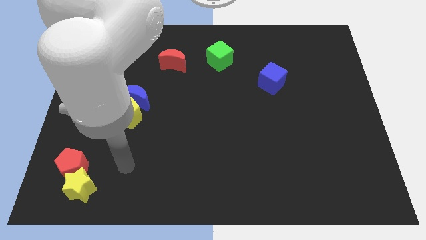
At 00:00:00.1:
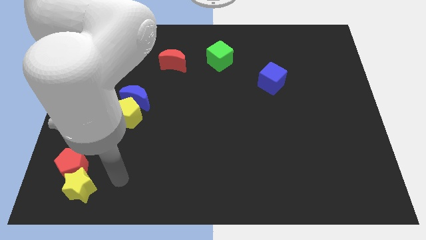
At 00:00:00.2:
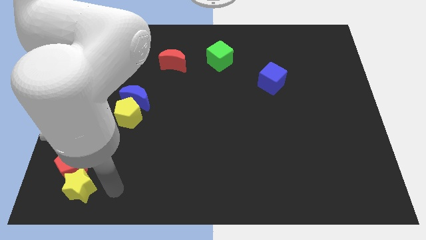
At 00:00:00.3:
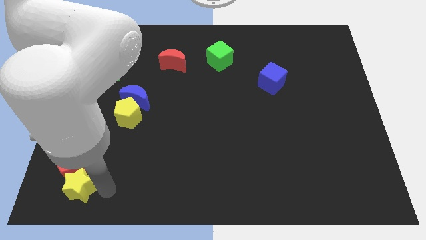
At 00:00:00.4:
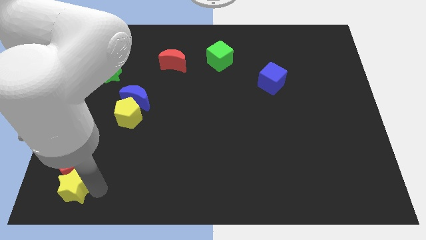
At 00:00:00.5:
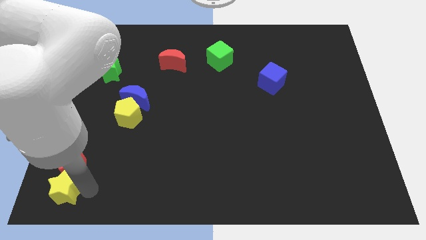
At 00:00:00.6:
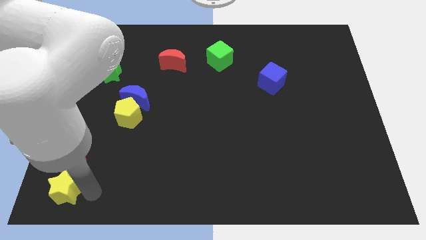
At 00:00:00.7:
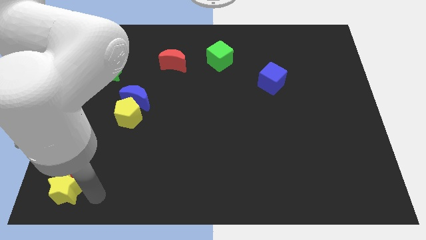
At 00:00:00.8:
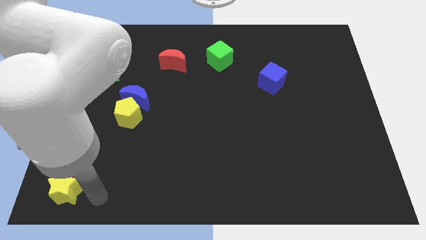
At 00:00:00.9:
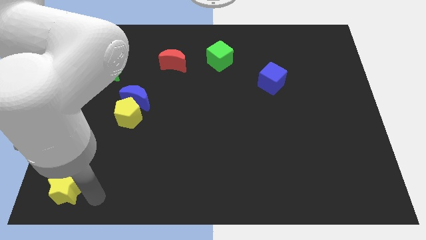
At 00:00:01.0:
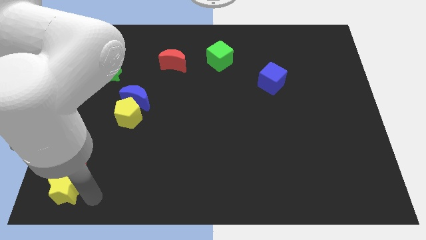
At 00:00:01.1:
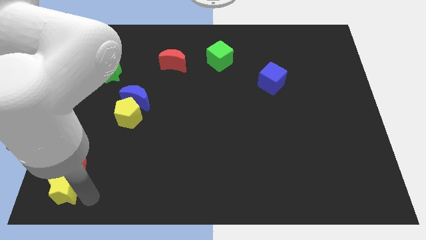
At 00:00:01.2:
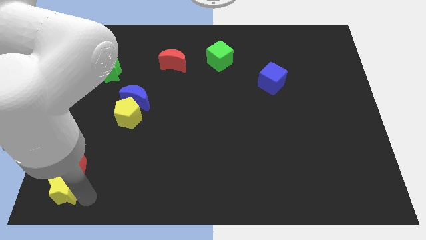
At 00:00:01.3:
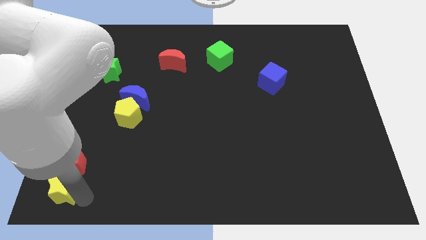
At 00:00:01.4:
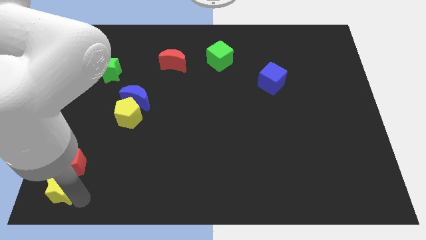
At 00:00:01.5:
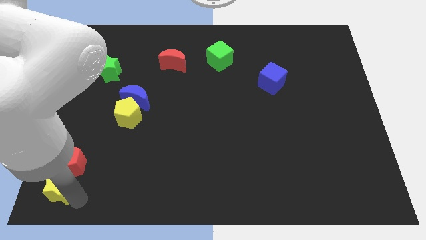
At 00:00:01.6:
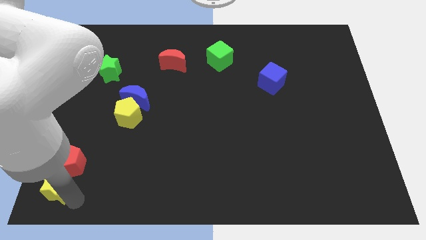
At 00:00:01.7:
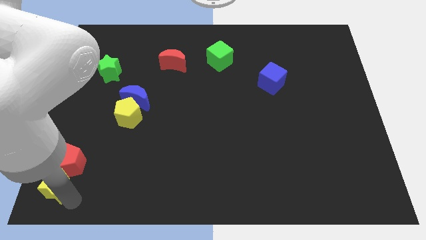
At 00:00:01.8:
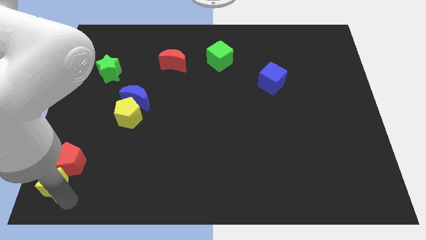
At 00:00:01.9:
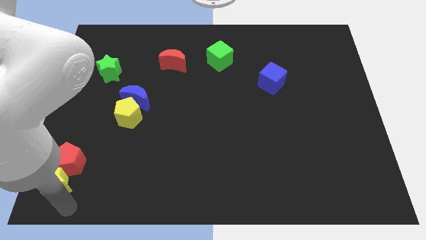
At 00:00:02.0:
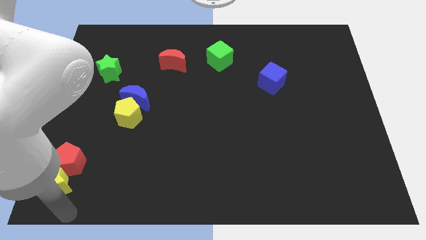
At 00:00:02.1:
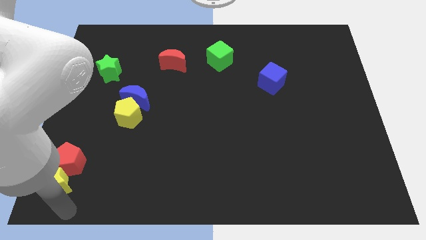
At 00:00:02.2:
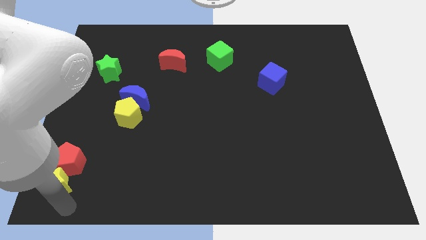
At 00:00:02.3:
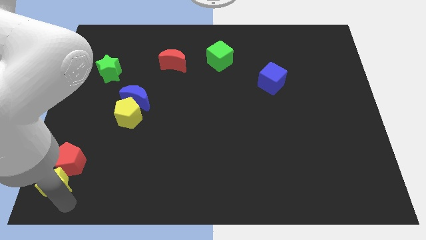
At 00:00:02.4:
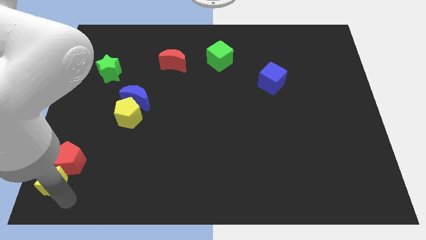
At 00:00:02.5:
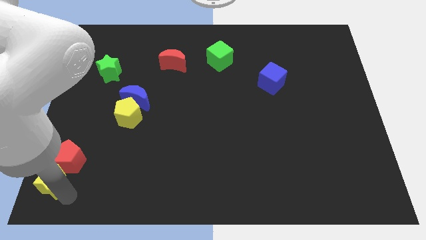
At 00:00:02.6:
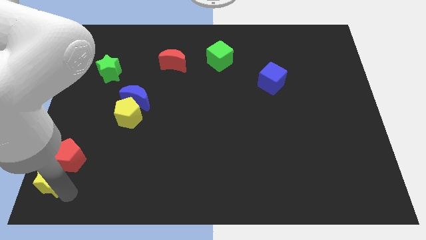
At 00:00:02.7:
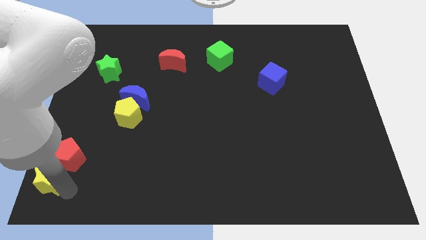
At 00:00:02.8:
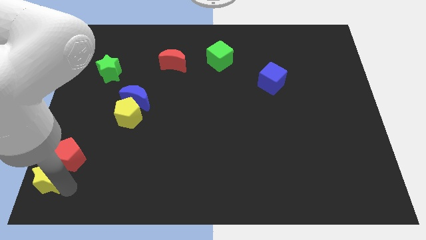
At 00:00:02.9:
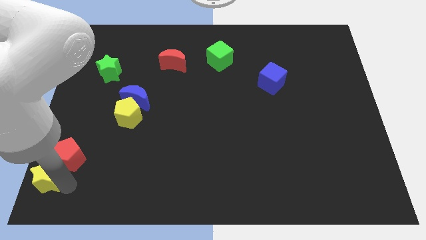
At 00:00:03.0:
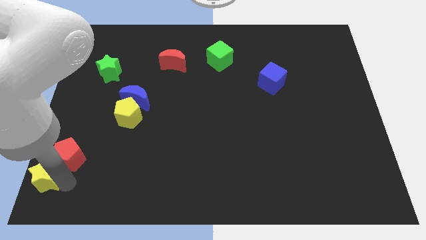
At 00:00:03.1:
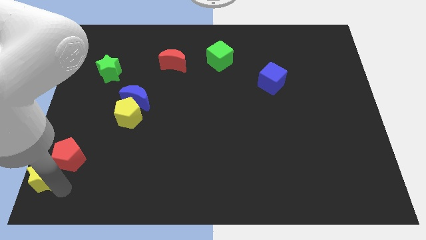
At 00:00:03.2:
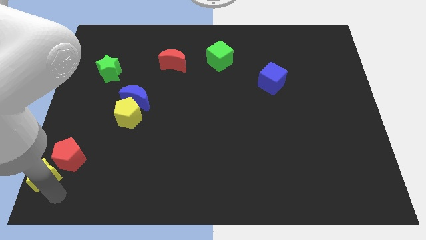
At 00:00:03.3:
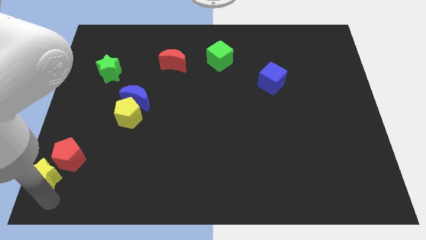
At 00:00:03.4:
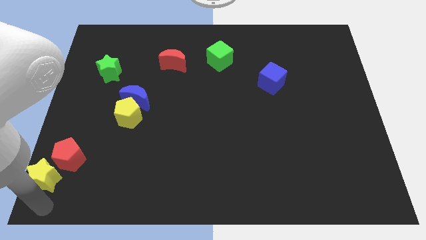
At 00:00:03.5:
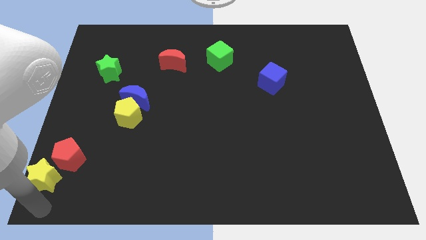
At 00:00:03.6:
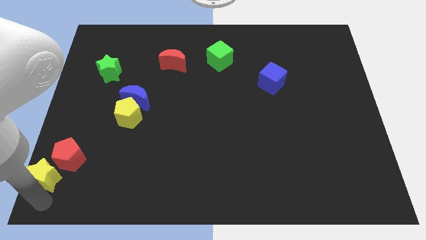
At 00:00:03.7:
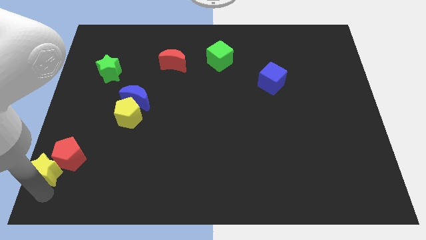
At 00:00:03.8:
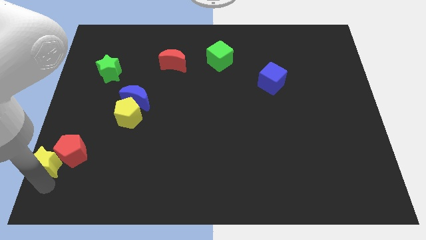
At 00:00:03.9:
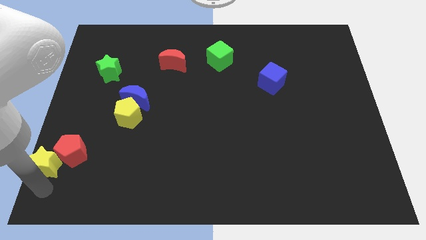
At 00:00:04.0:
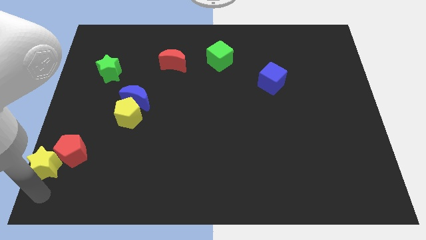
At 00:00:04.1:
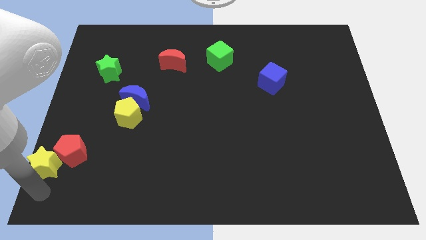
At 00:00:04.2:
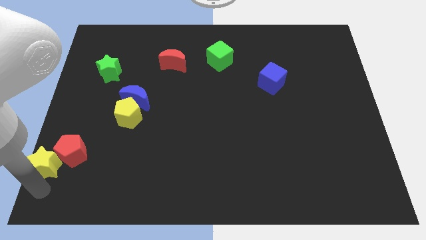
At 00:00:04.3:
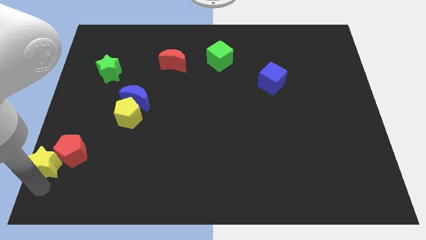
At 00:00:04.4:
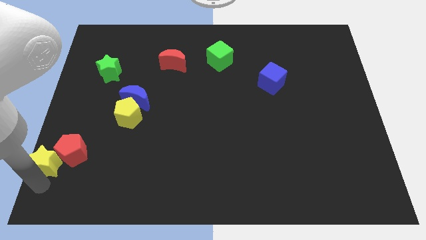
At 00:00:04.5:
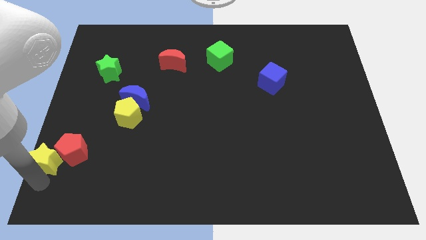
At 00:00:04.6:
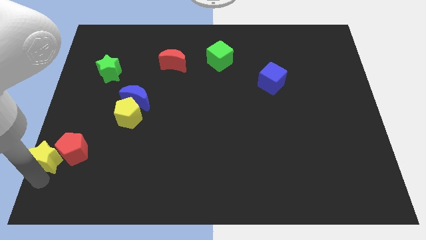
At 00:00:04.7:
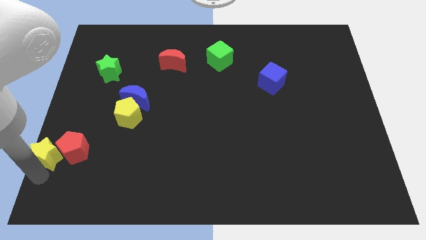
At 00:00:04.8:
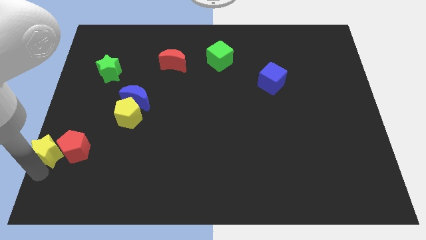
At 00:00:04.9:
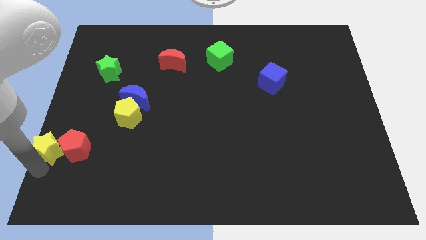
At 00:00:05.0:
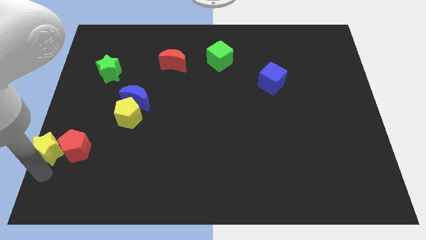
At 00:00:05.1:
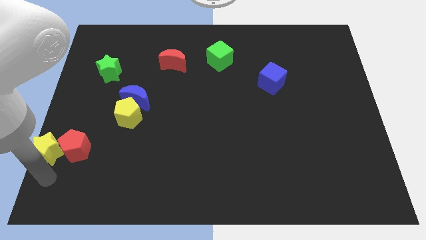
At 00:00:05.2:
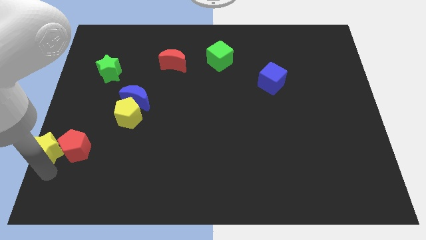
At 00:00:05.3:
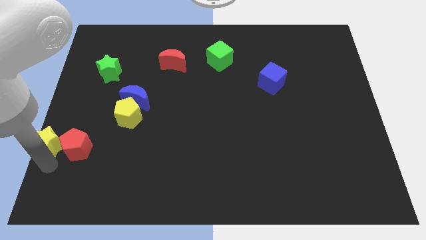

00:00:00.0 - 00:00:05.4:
push the yellow star to the center left

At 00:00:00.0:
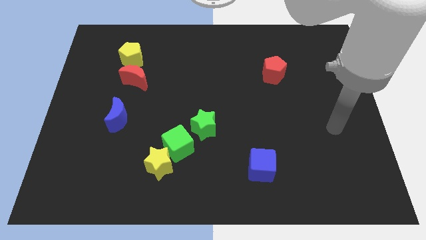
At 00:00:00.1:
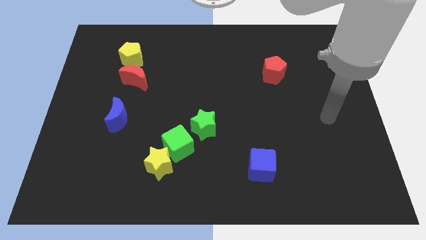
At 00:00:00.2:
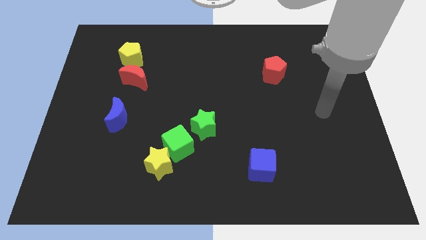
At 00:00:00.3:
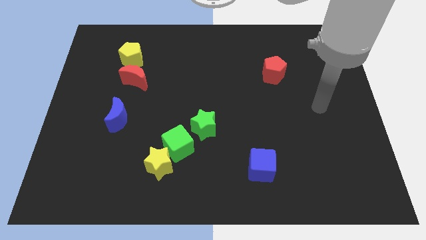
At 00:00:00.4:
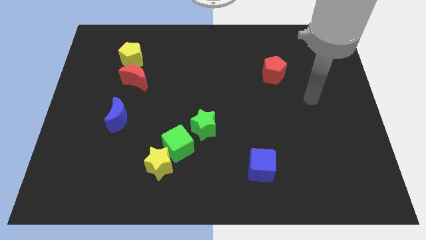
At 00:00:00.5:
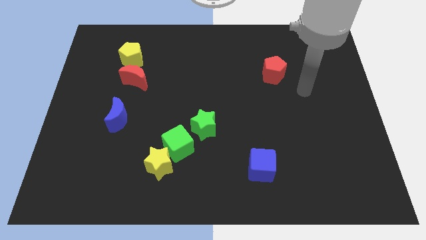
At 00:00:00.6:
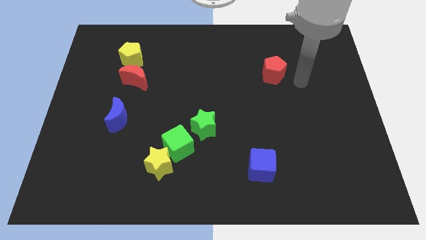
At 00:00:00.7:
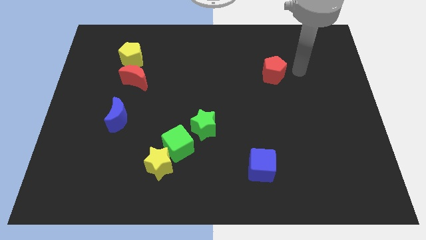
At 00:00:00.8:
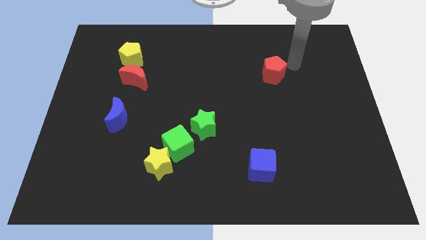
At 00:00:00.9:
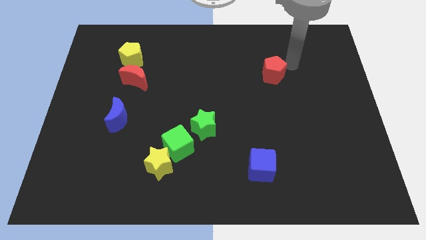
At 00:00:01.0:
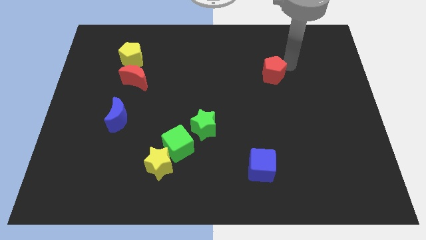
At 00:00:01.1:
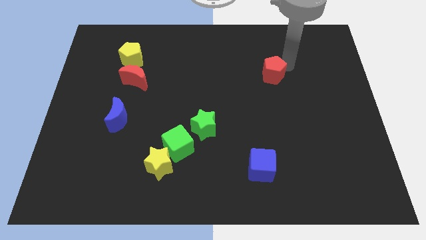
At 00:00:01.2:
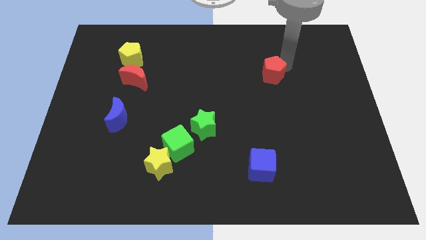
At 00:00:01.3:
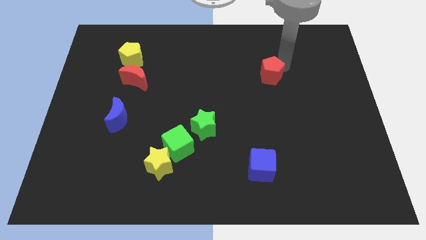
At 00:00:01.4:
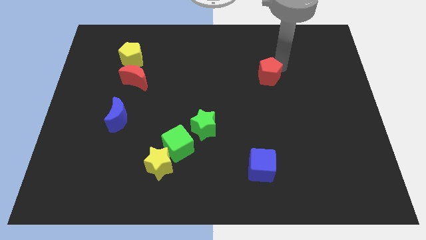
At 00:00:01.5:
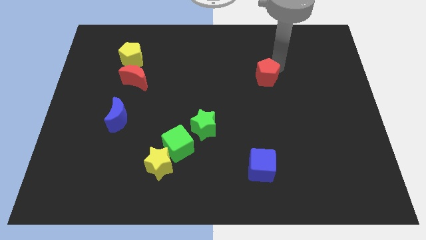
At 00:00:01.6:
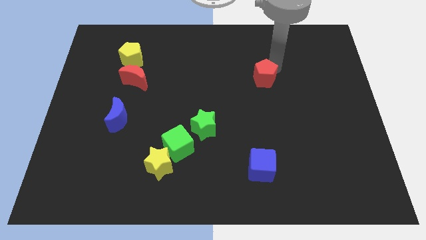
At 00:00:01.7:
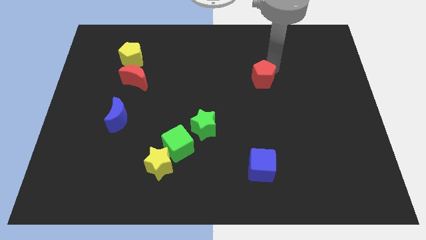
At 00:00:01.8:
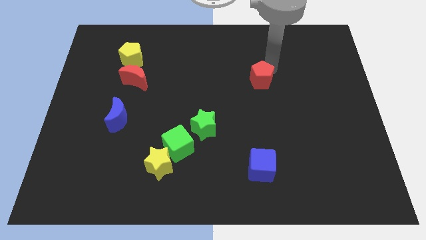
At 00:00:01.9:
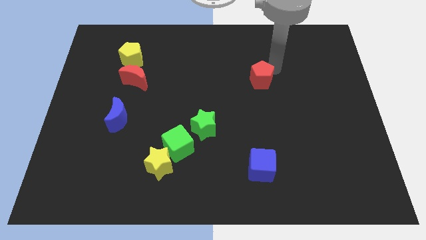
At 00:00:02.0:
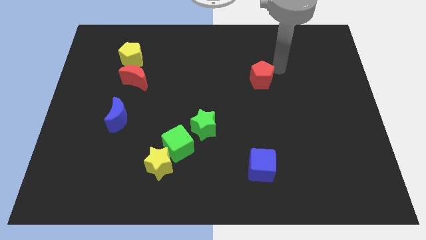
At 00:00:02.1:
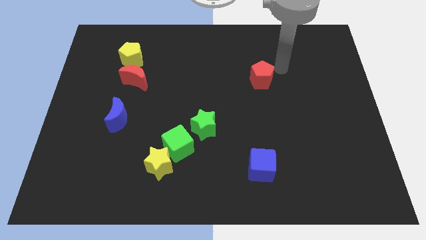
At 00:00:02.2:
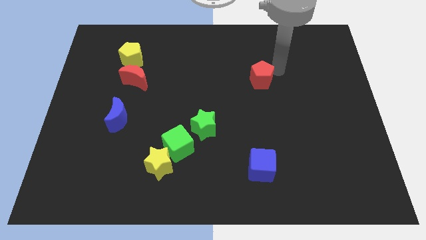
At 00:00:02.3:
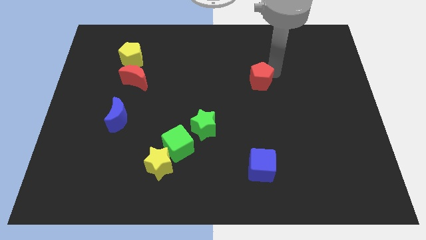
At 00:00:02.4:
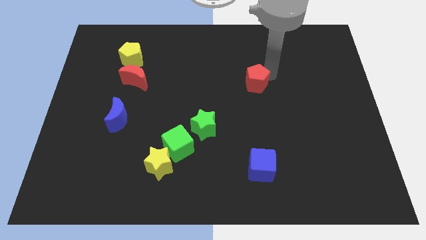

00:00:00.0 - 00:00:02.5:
move the red pentagon to the center
